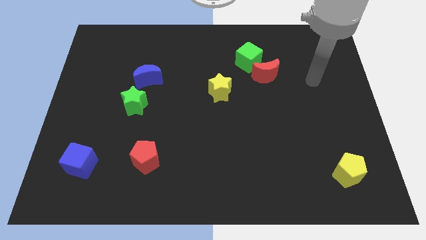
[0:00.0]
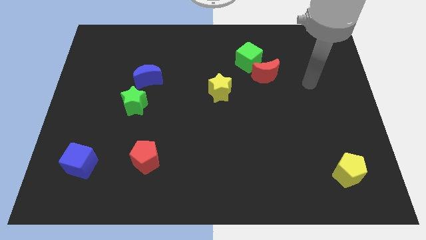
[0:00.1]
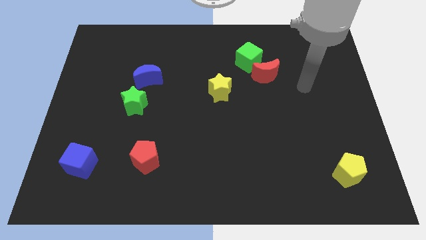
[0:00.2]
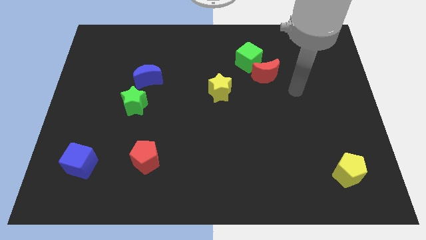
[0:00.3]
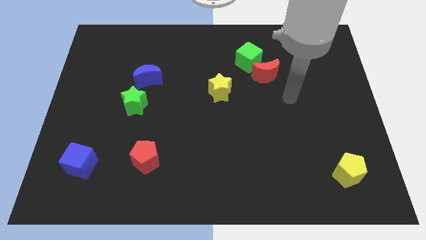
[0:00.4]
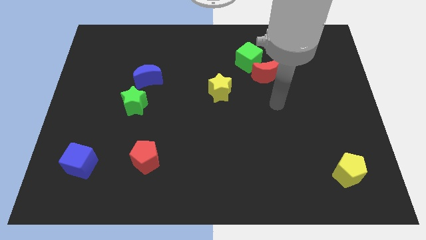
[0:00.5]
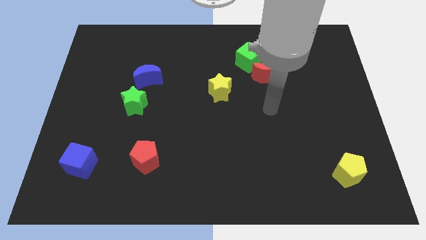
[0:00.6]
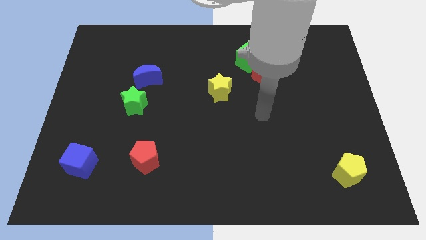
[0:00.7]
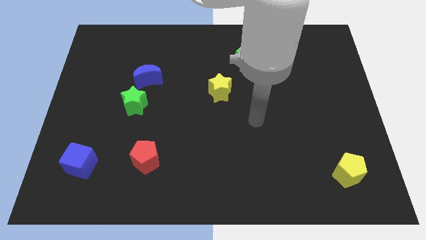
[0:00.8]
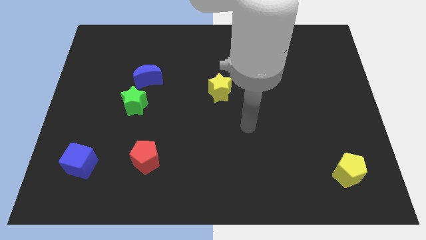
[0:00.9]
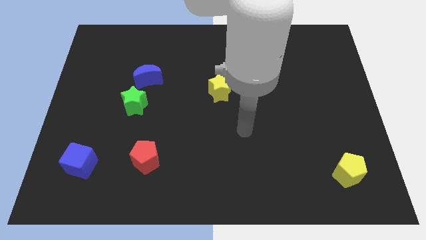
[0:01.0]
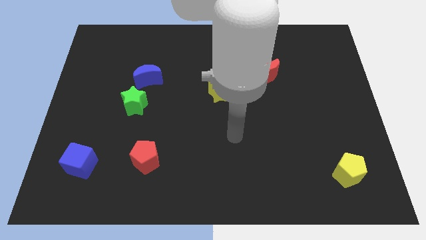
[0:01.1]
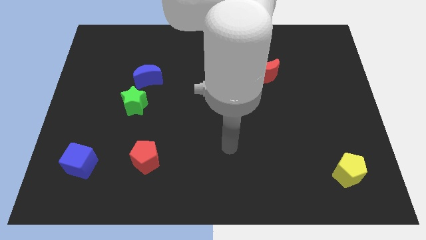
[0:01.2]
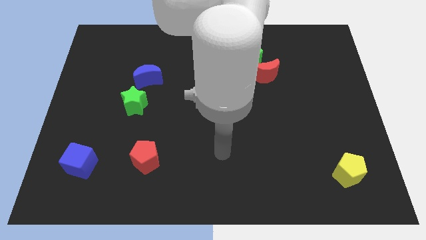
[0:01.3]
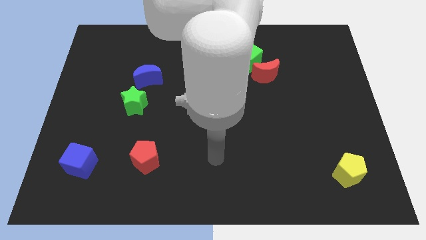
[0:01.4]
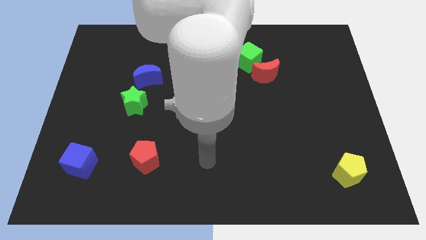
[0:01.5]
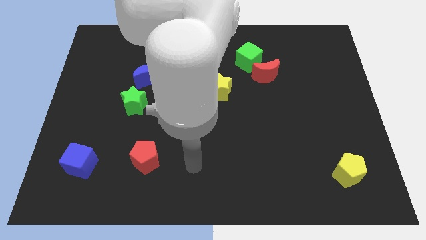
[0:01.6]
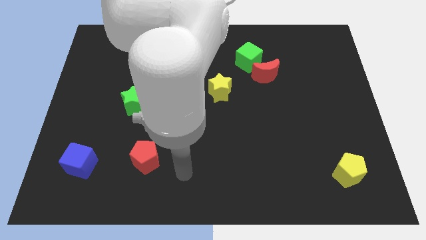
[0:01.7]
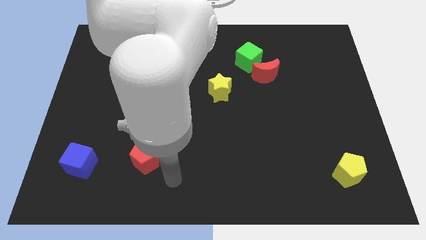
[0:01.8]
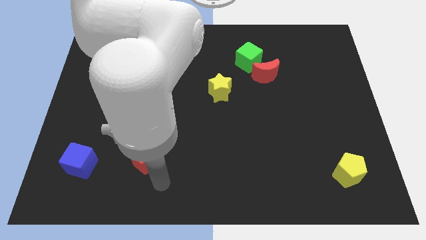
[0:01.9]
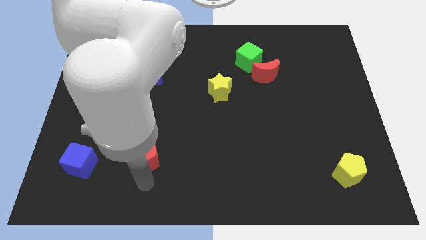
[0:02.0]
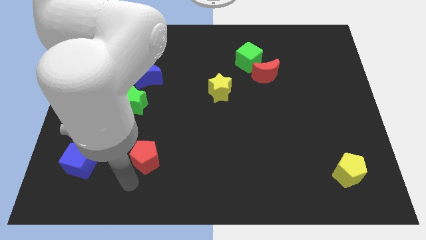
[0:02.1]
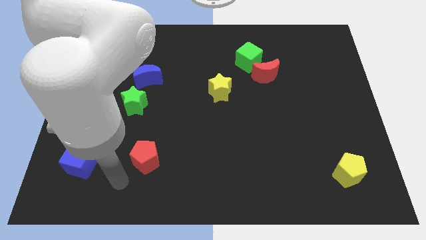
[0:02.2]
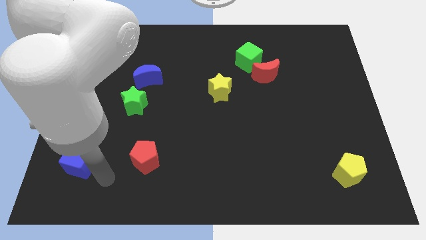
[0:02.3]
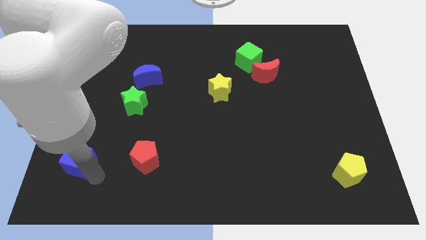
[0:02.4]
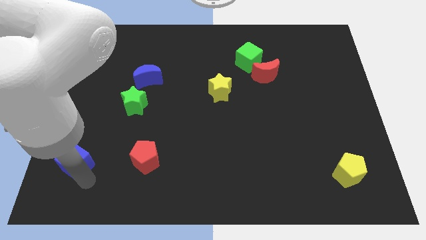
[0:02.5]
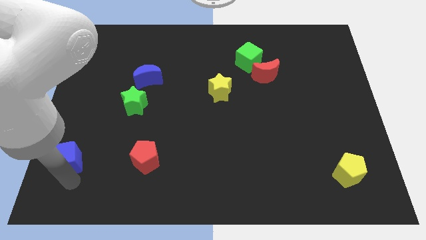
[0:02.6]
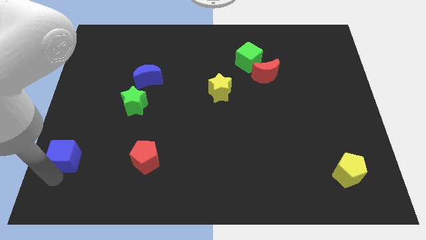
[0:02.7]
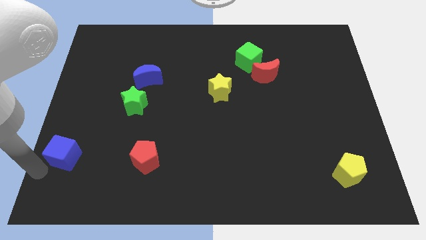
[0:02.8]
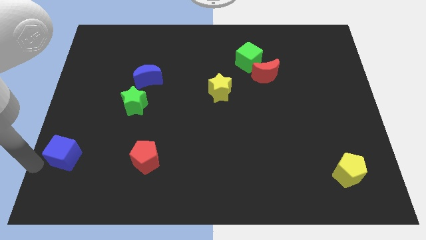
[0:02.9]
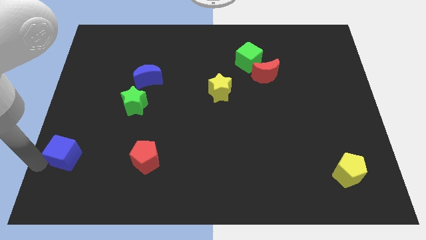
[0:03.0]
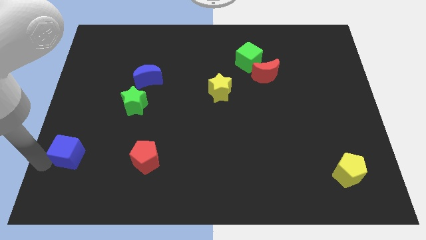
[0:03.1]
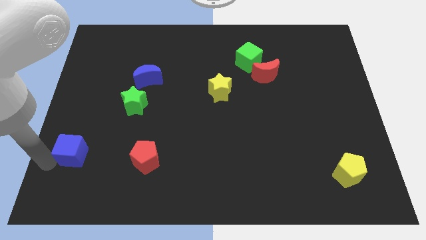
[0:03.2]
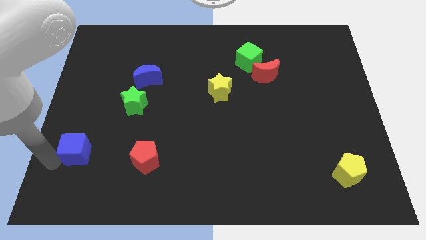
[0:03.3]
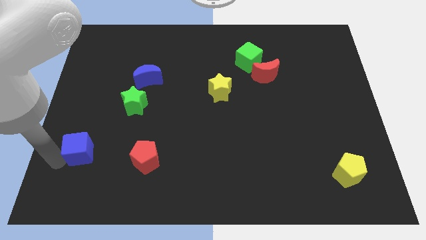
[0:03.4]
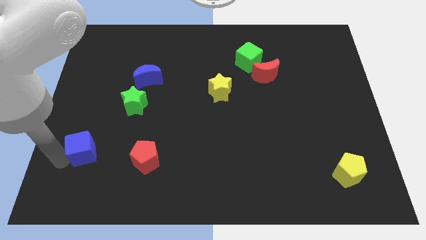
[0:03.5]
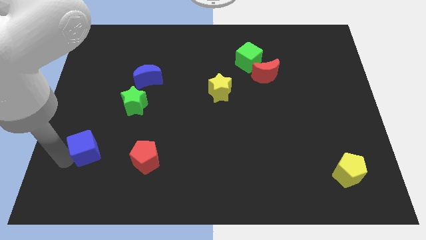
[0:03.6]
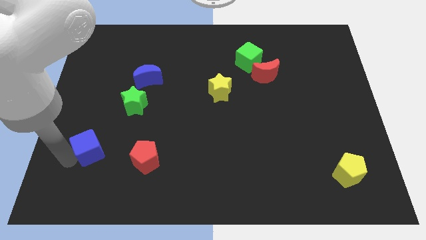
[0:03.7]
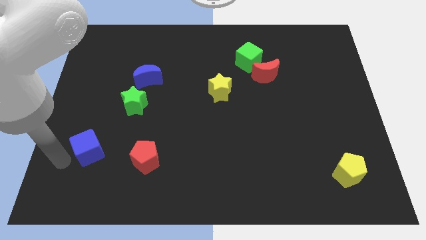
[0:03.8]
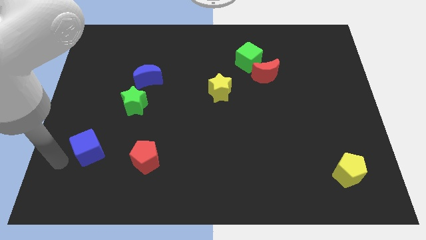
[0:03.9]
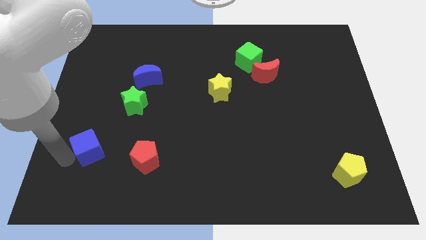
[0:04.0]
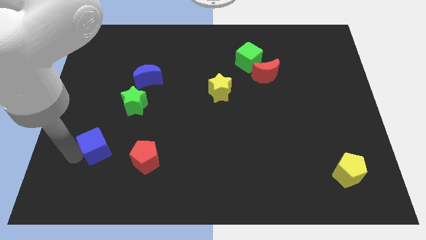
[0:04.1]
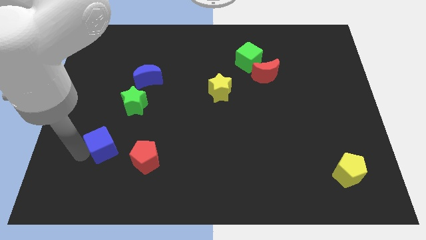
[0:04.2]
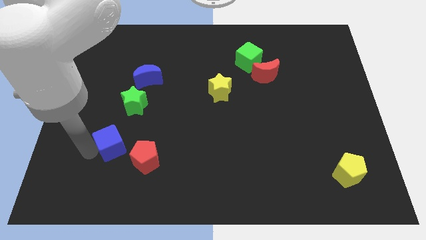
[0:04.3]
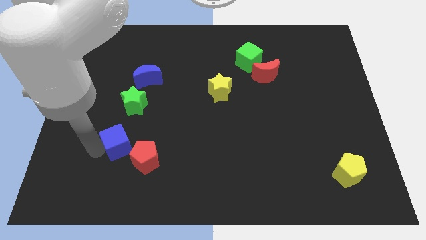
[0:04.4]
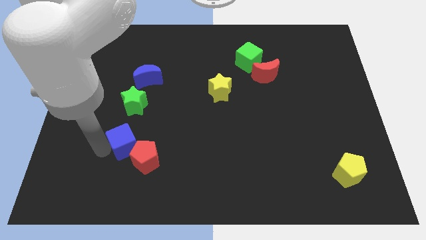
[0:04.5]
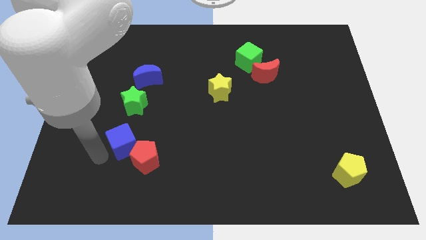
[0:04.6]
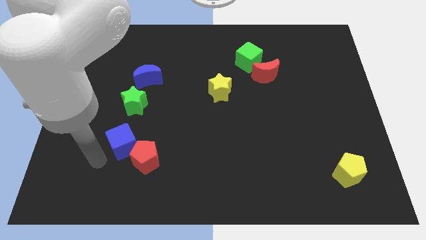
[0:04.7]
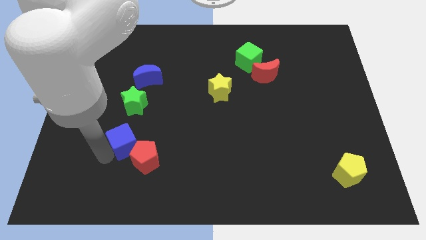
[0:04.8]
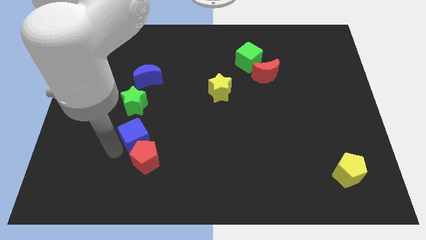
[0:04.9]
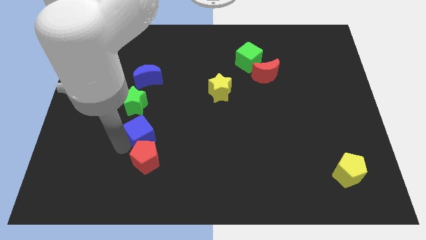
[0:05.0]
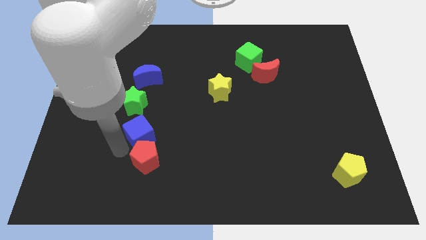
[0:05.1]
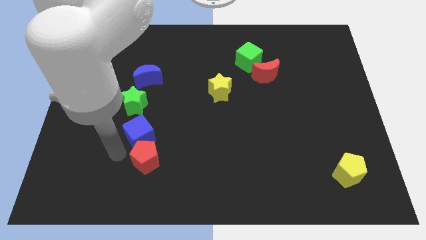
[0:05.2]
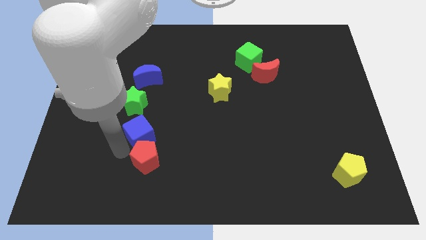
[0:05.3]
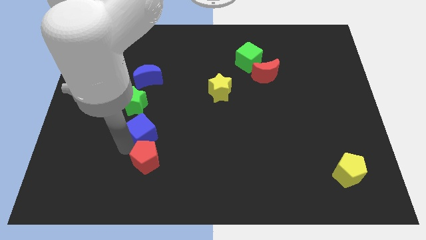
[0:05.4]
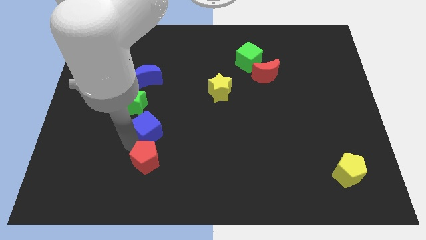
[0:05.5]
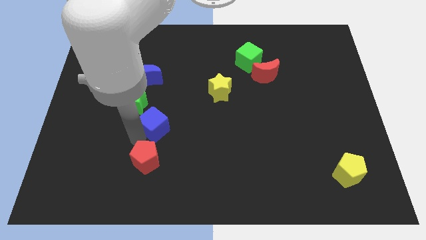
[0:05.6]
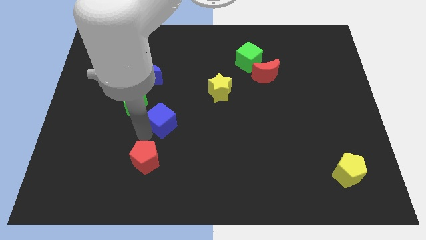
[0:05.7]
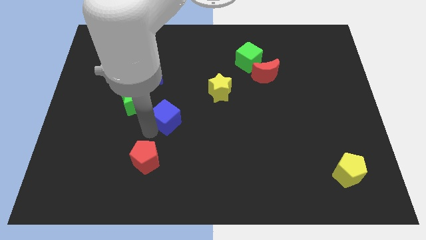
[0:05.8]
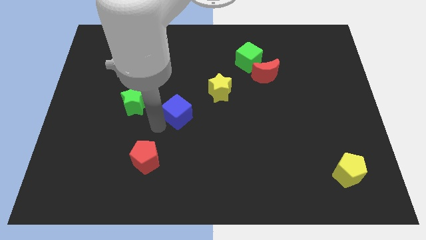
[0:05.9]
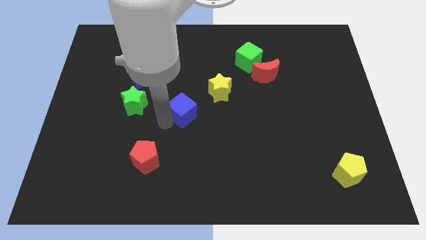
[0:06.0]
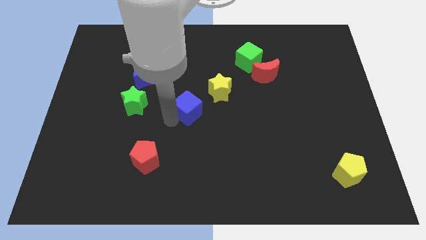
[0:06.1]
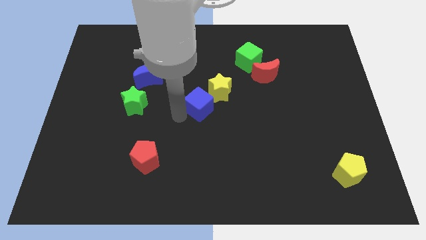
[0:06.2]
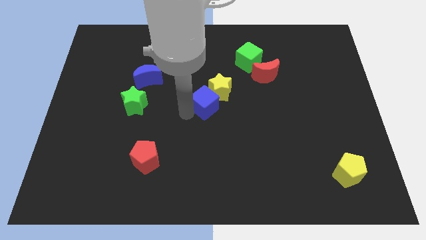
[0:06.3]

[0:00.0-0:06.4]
put the blue cube next to the yellow star
